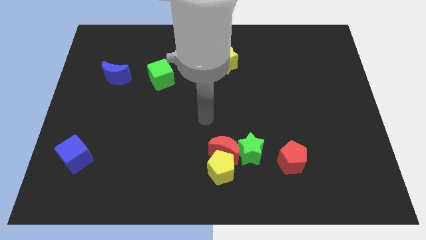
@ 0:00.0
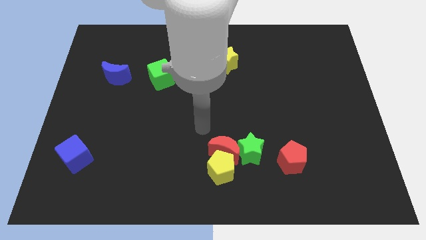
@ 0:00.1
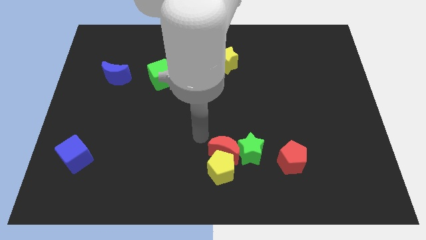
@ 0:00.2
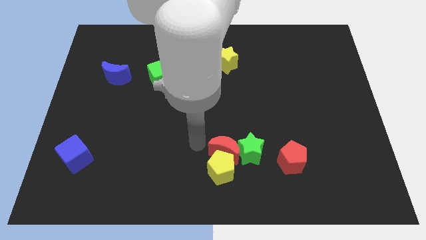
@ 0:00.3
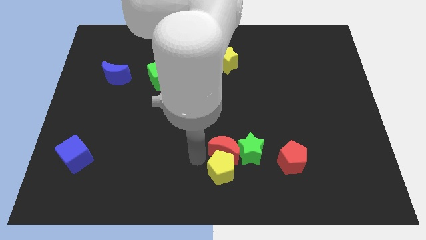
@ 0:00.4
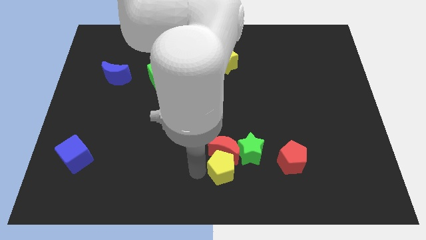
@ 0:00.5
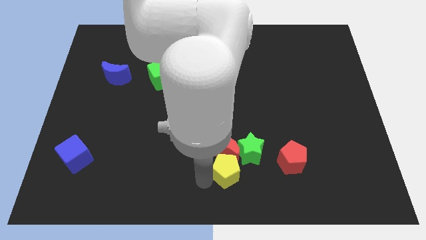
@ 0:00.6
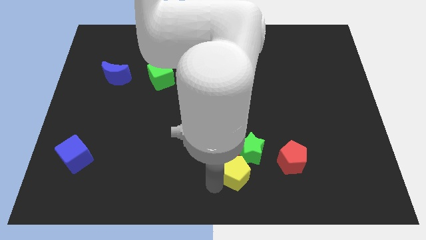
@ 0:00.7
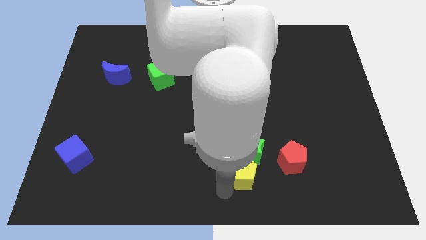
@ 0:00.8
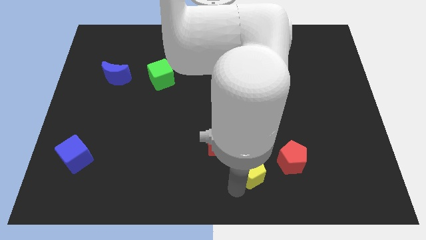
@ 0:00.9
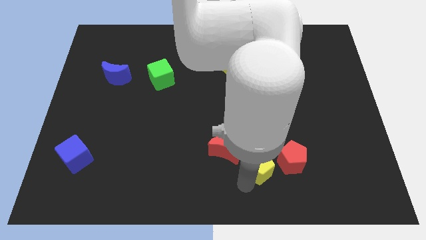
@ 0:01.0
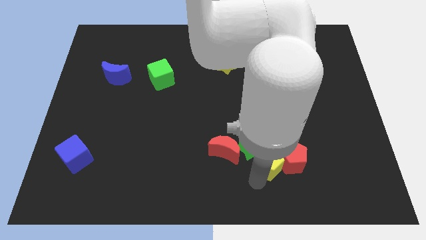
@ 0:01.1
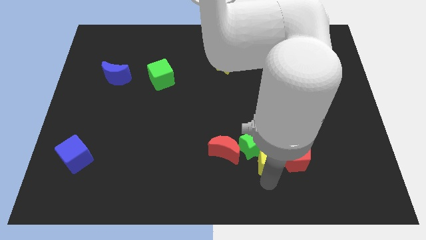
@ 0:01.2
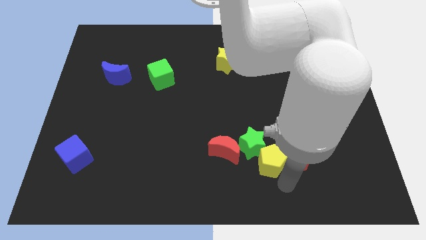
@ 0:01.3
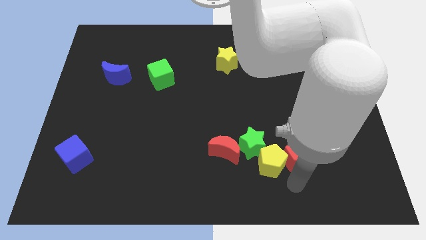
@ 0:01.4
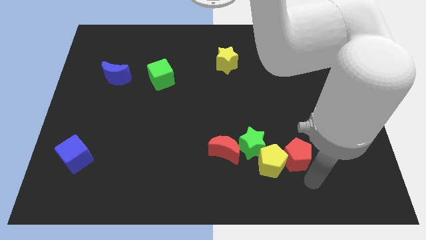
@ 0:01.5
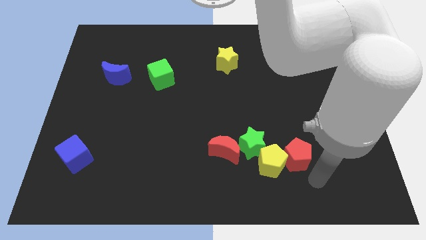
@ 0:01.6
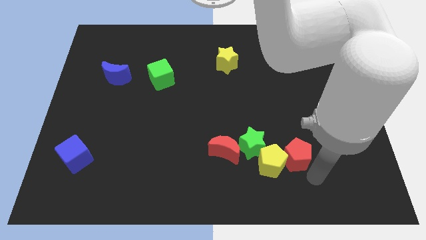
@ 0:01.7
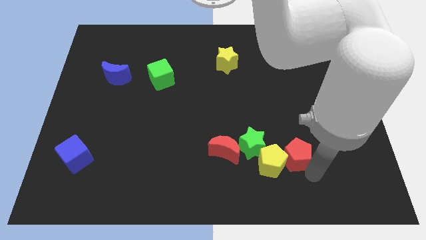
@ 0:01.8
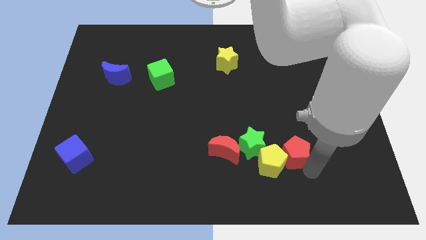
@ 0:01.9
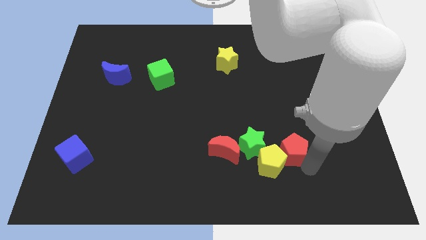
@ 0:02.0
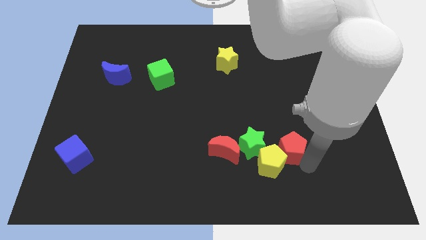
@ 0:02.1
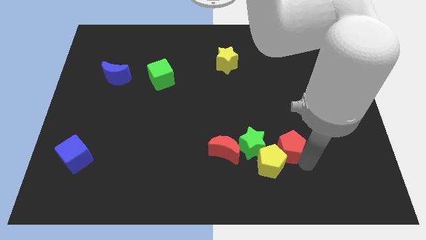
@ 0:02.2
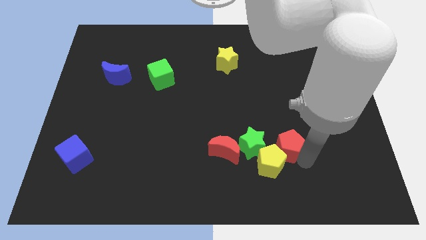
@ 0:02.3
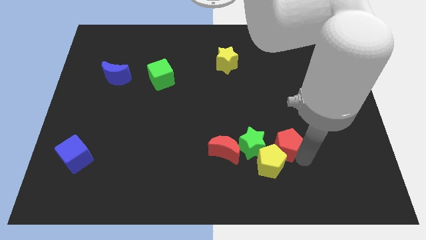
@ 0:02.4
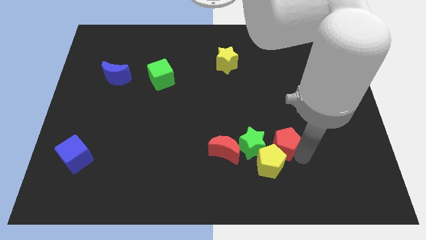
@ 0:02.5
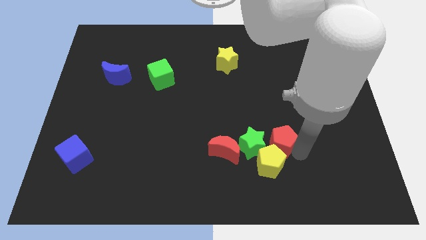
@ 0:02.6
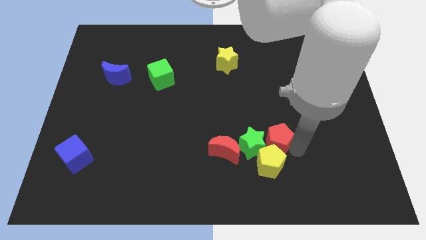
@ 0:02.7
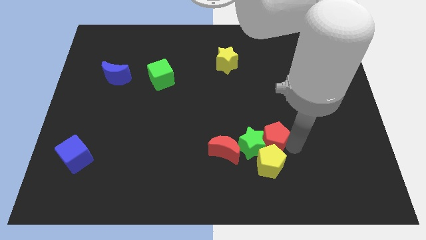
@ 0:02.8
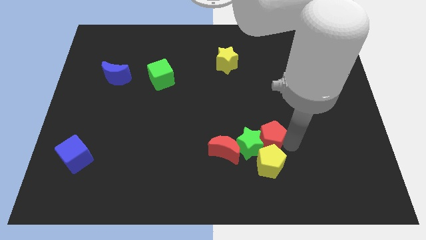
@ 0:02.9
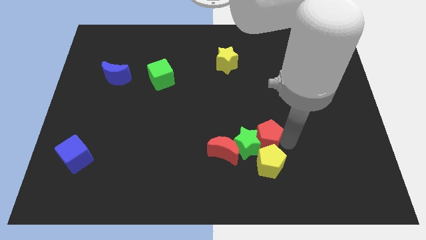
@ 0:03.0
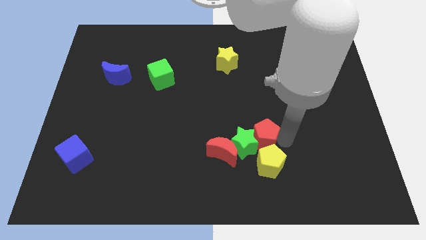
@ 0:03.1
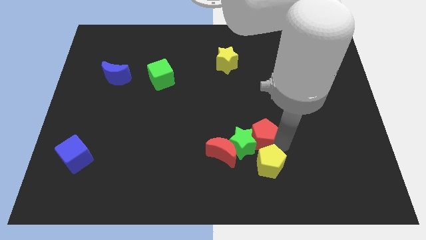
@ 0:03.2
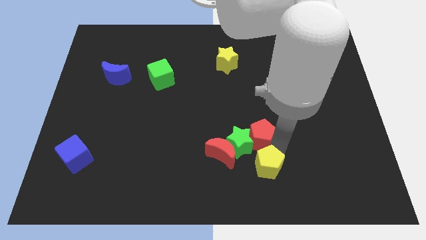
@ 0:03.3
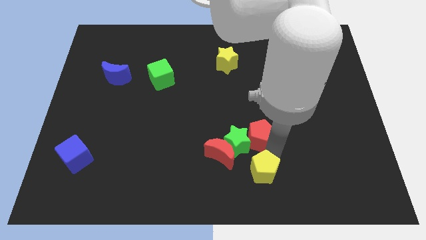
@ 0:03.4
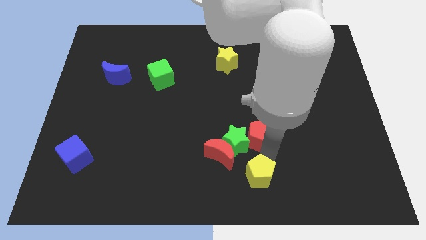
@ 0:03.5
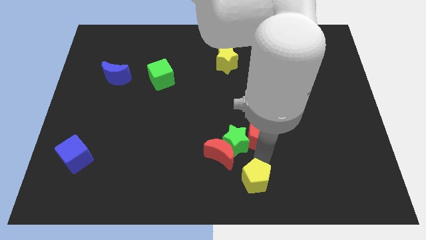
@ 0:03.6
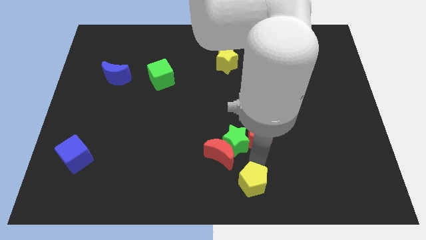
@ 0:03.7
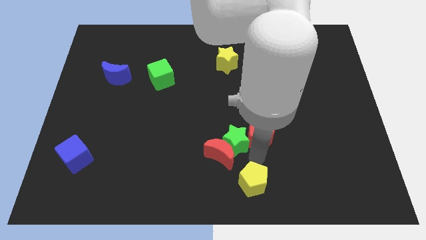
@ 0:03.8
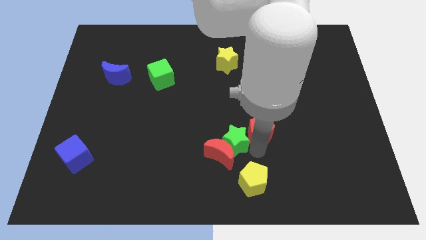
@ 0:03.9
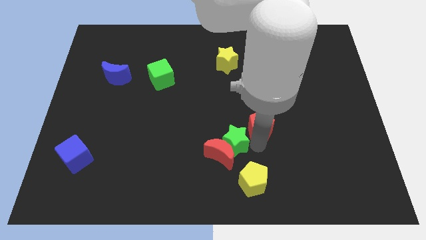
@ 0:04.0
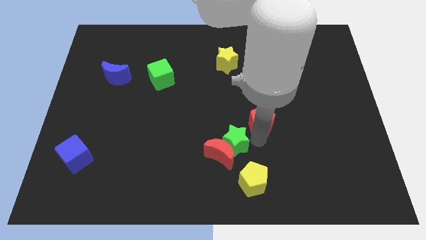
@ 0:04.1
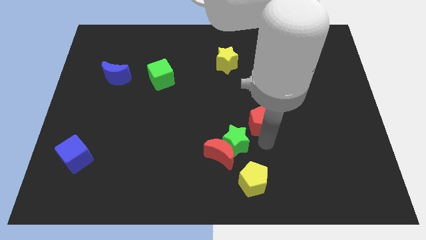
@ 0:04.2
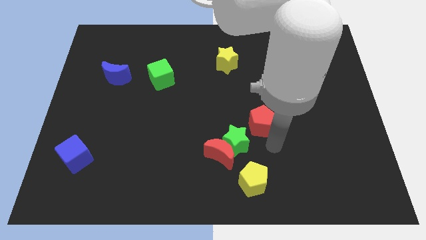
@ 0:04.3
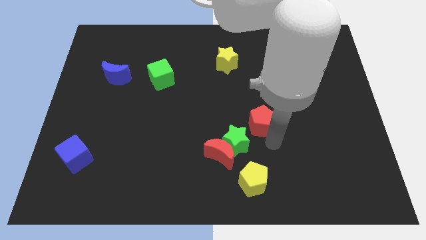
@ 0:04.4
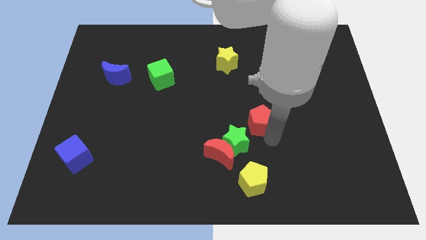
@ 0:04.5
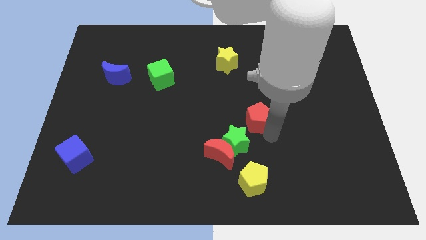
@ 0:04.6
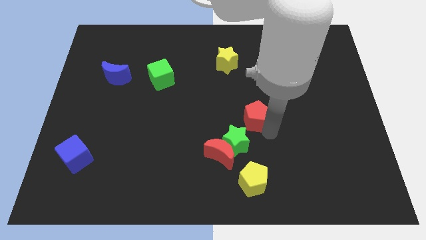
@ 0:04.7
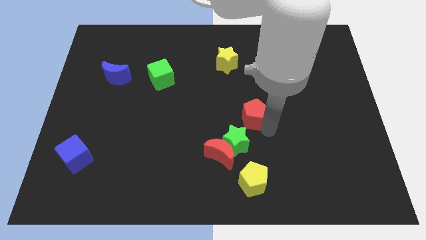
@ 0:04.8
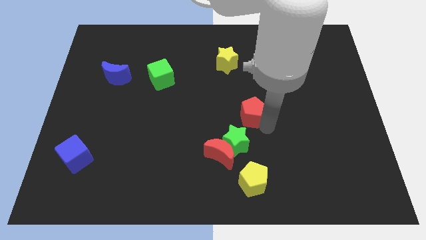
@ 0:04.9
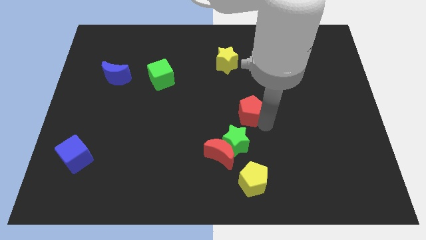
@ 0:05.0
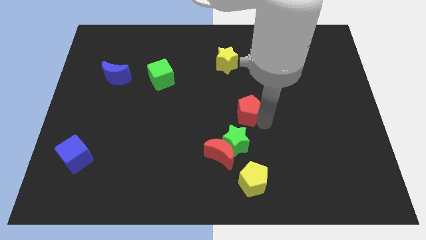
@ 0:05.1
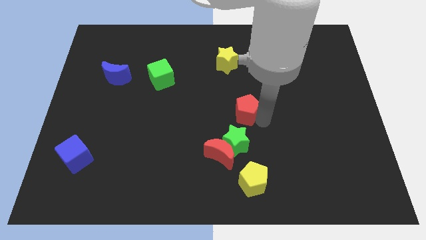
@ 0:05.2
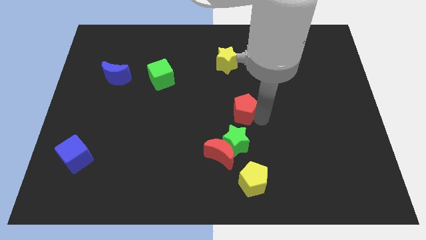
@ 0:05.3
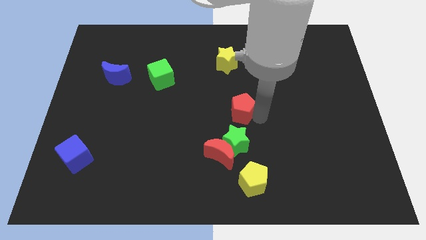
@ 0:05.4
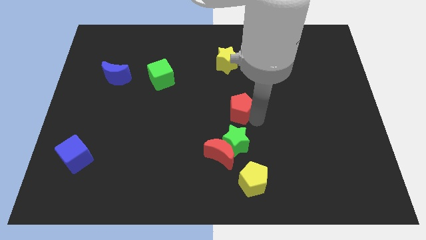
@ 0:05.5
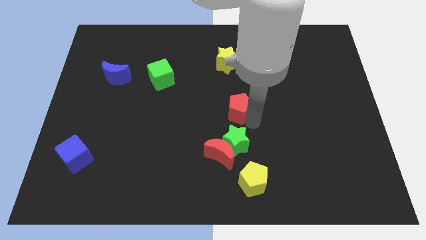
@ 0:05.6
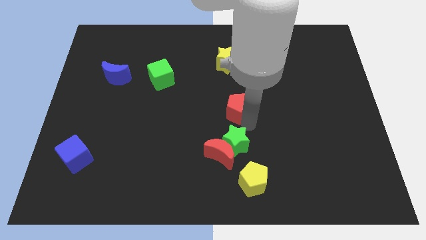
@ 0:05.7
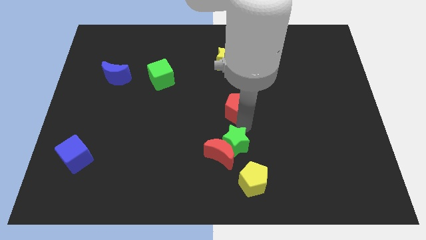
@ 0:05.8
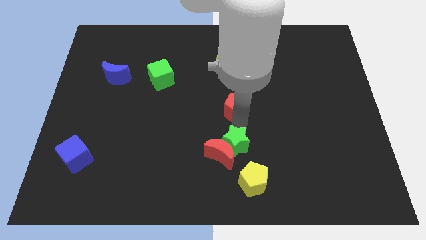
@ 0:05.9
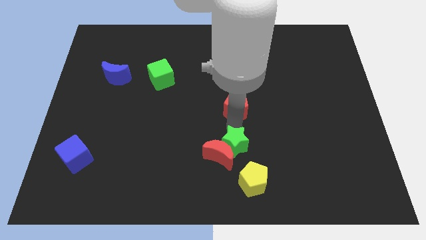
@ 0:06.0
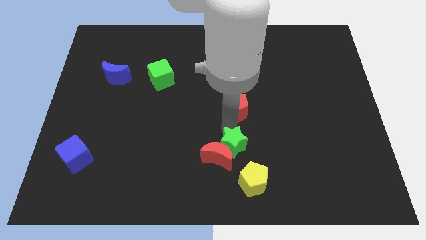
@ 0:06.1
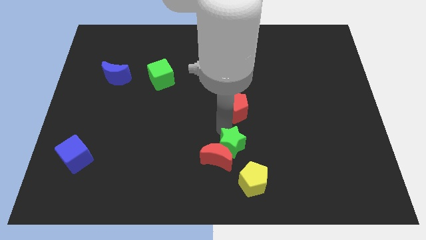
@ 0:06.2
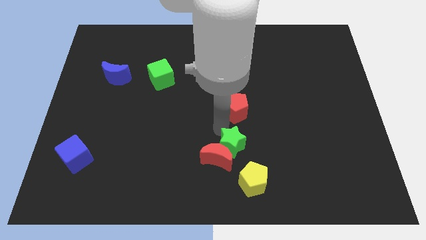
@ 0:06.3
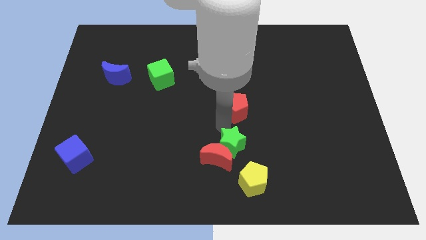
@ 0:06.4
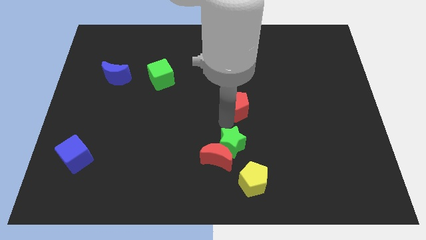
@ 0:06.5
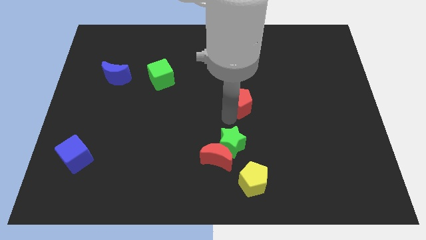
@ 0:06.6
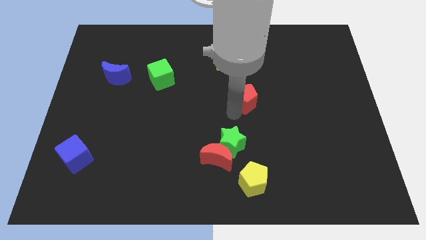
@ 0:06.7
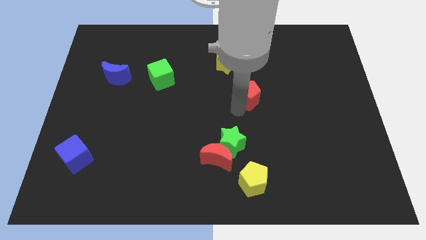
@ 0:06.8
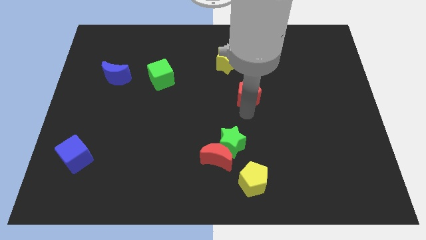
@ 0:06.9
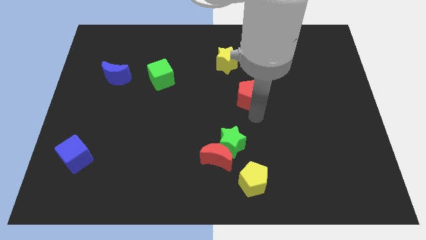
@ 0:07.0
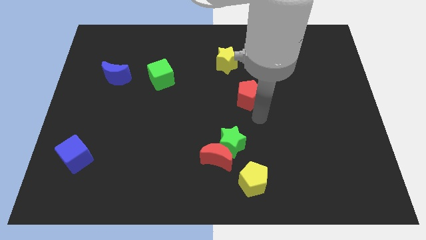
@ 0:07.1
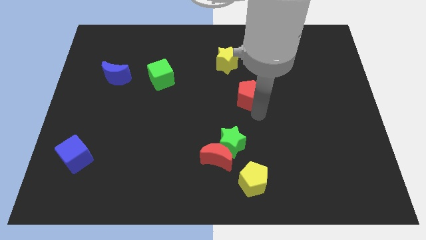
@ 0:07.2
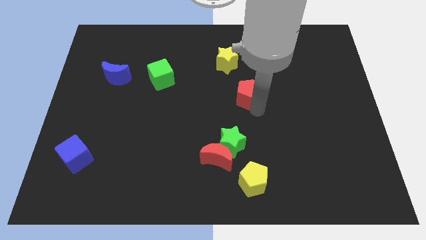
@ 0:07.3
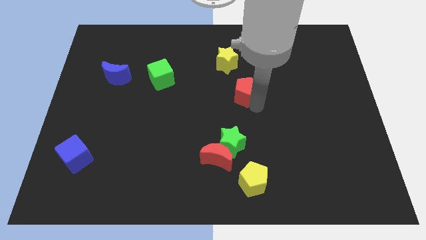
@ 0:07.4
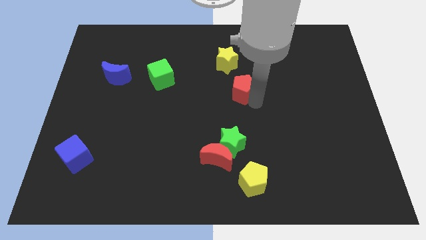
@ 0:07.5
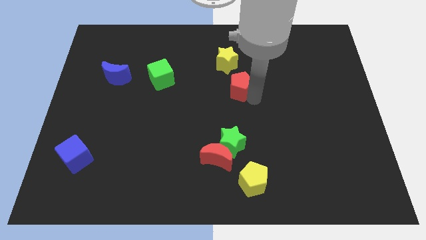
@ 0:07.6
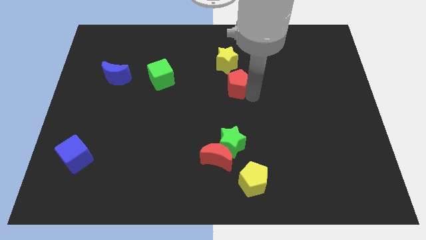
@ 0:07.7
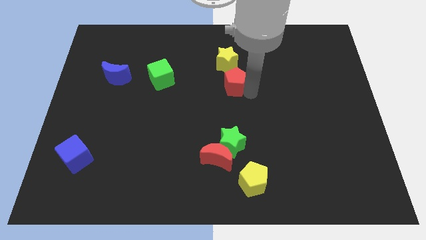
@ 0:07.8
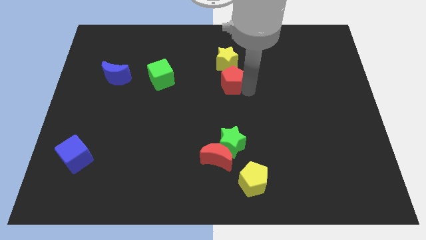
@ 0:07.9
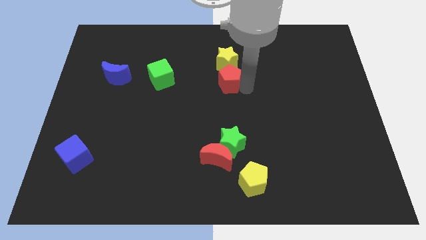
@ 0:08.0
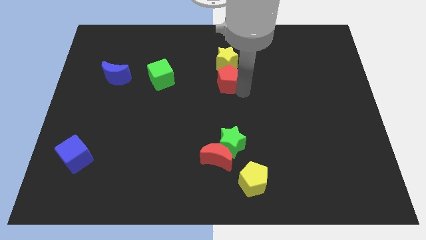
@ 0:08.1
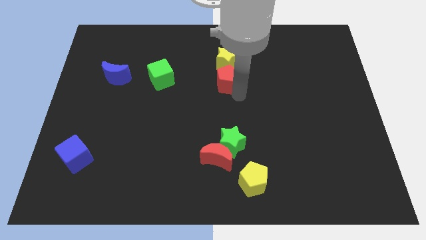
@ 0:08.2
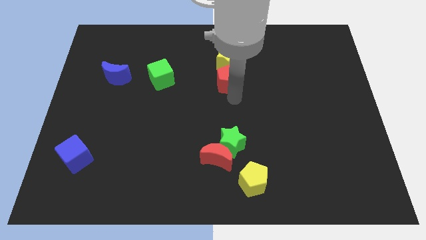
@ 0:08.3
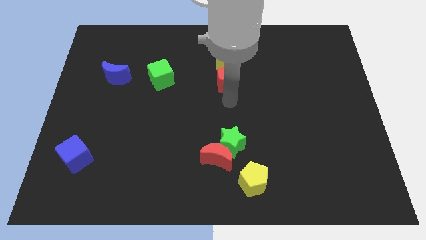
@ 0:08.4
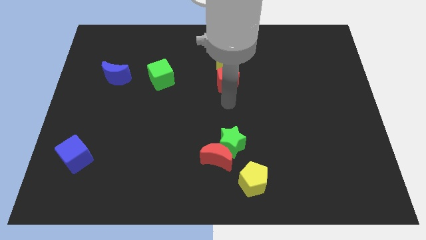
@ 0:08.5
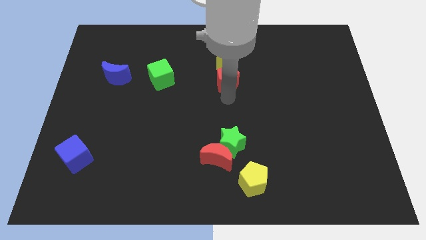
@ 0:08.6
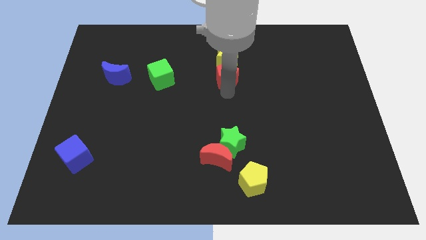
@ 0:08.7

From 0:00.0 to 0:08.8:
push the red pentagon towards the yellow star
